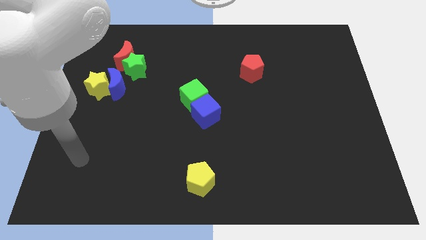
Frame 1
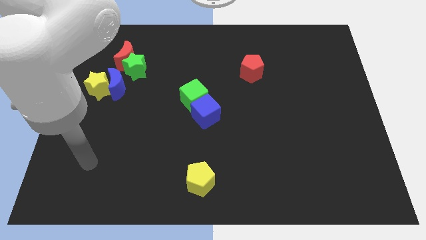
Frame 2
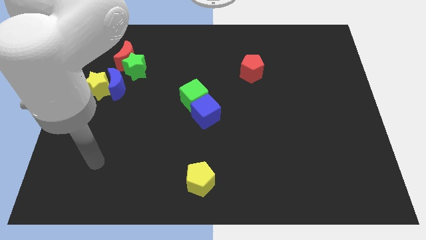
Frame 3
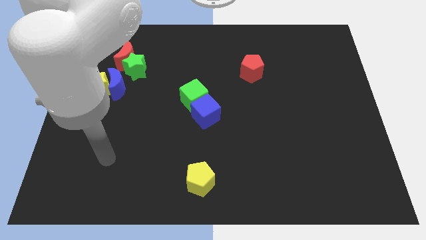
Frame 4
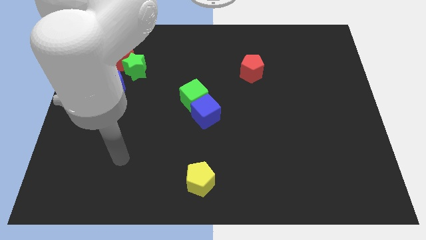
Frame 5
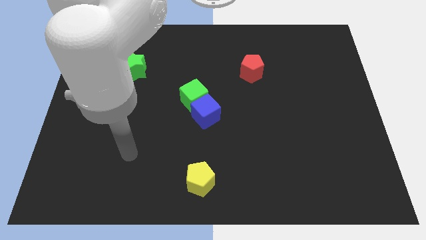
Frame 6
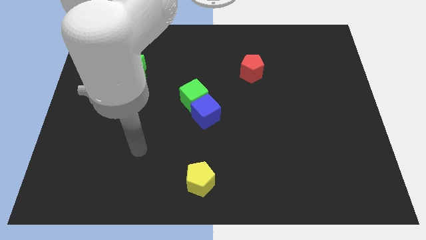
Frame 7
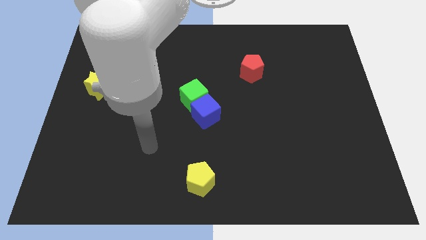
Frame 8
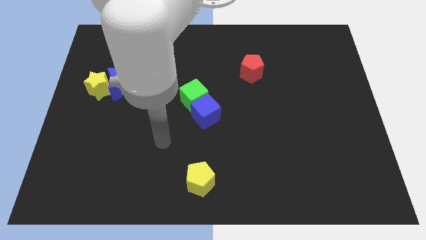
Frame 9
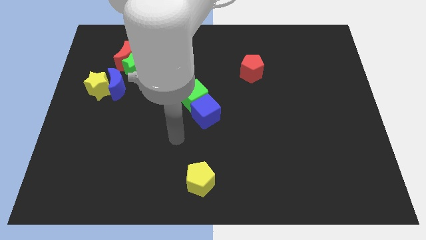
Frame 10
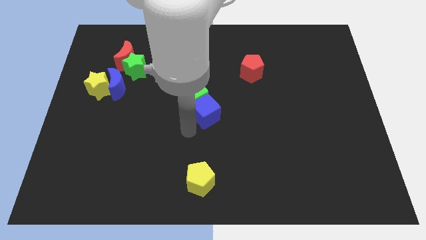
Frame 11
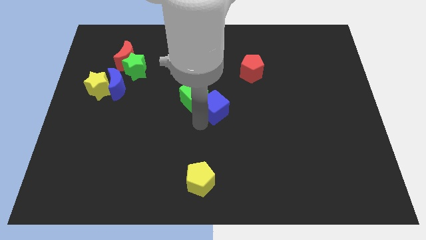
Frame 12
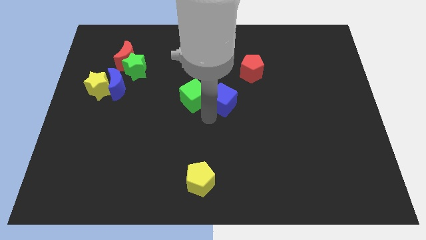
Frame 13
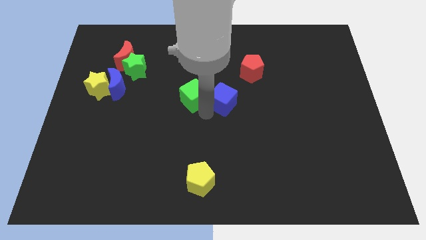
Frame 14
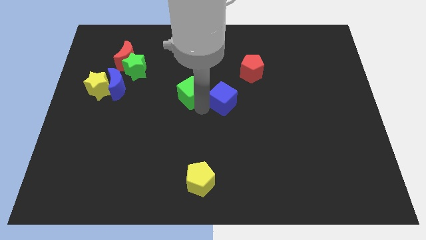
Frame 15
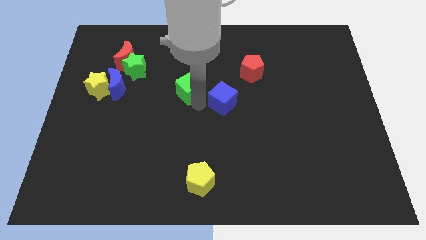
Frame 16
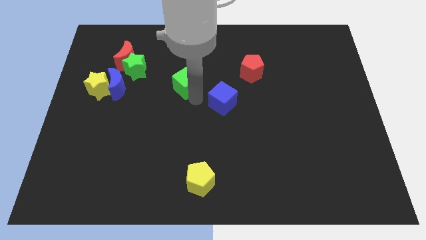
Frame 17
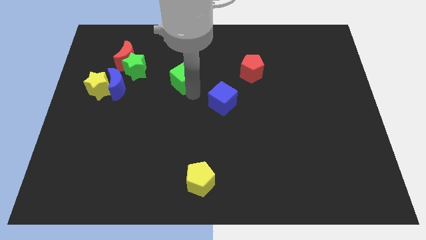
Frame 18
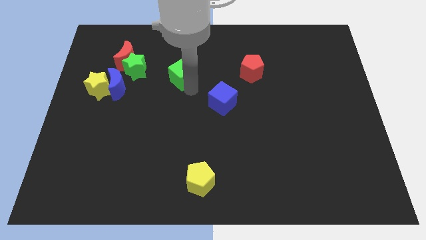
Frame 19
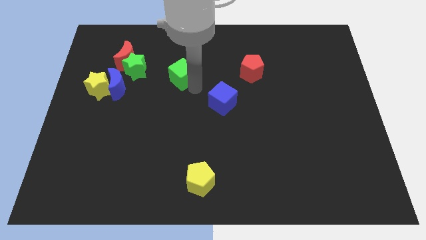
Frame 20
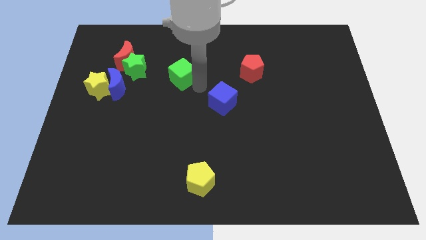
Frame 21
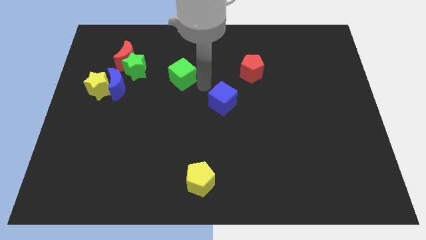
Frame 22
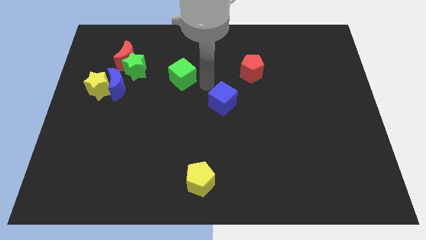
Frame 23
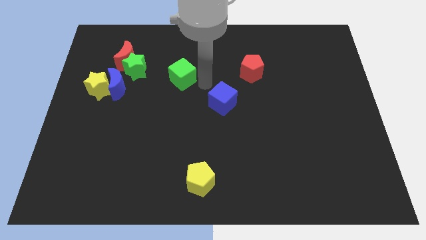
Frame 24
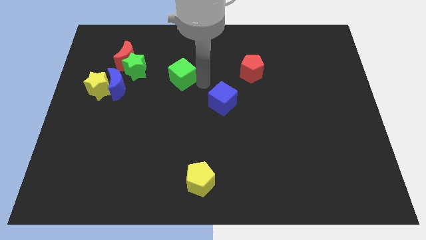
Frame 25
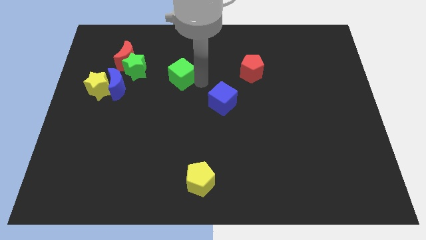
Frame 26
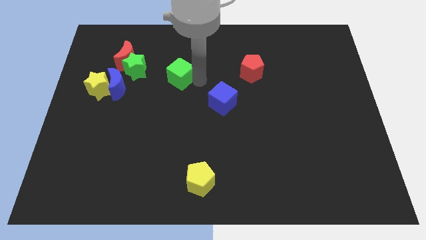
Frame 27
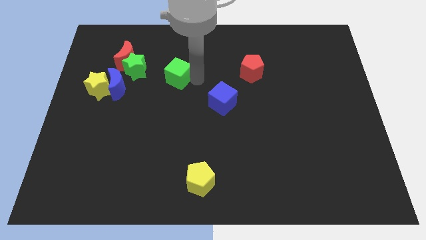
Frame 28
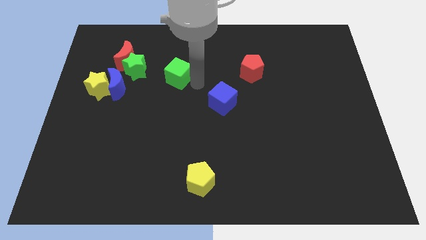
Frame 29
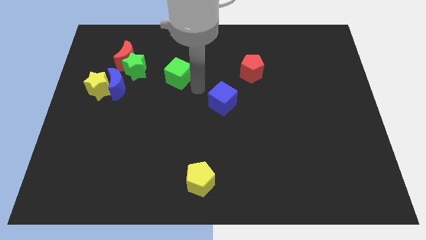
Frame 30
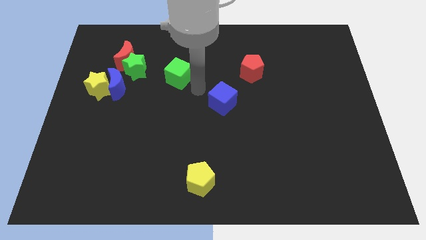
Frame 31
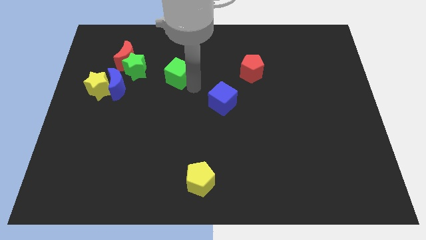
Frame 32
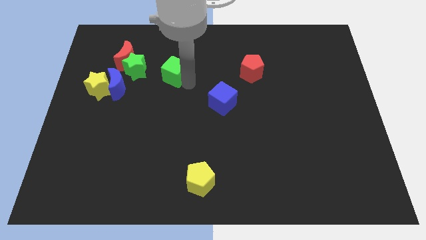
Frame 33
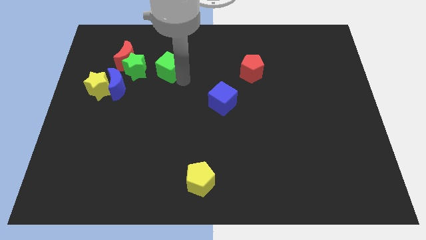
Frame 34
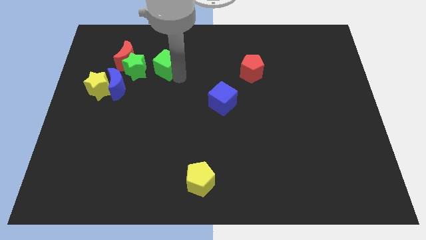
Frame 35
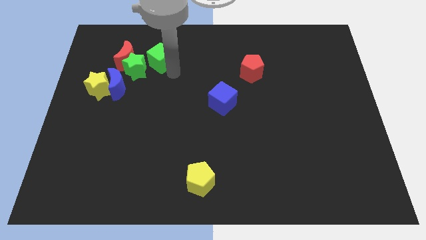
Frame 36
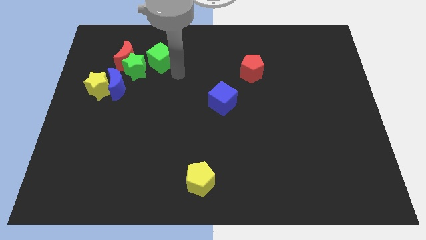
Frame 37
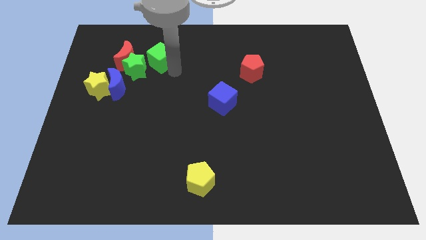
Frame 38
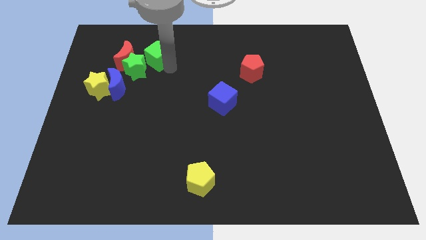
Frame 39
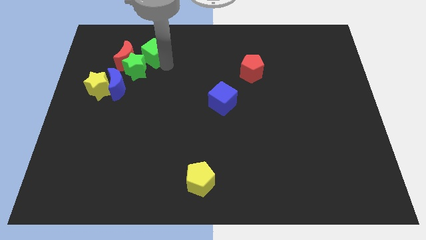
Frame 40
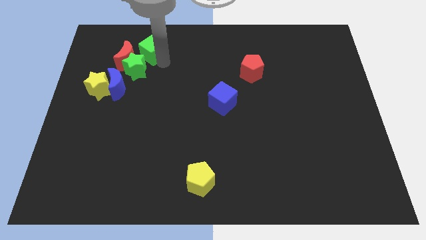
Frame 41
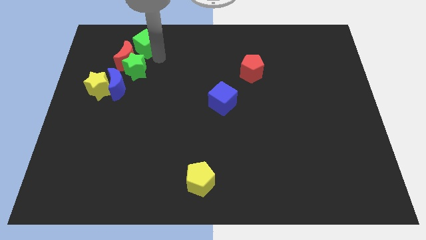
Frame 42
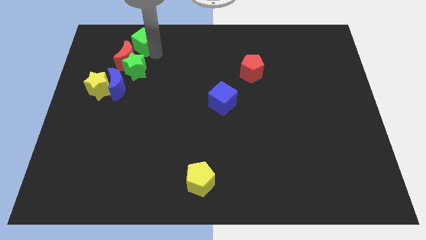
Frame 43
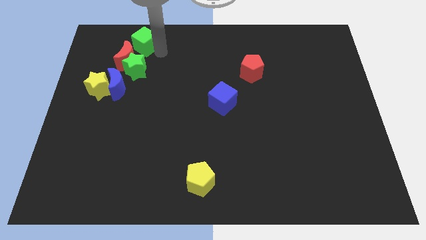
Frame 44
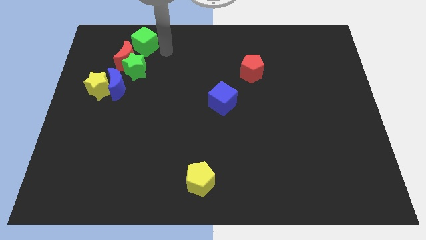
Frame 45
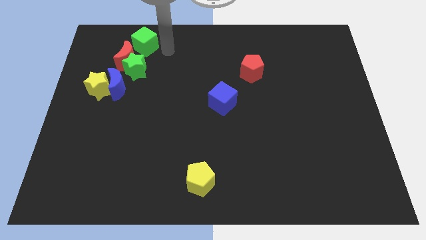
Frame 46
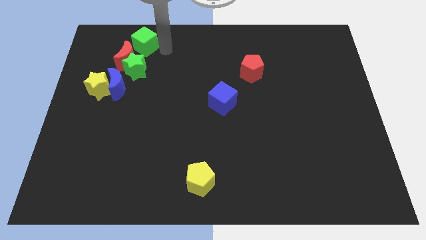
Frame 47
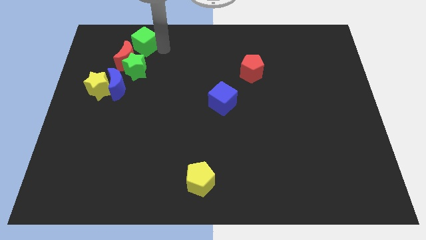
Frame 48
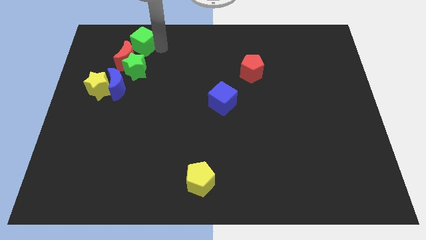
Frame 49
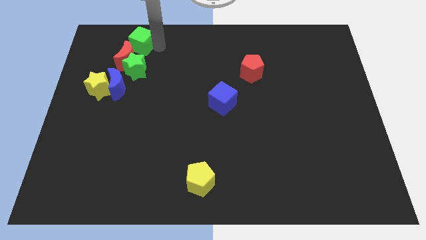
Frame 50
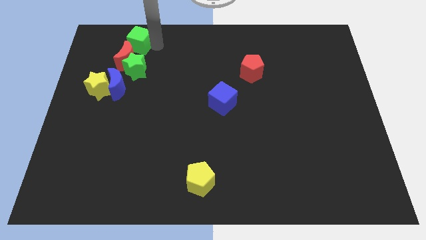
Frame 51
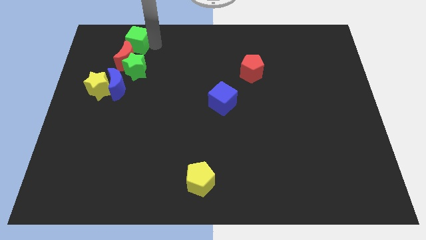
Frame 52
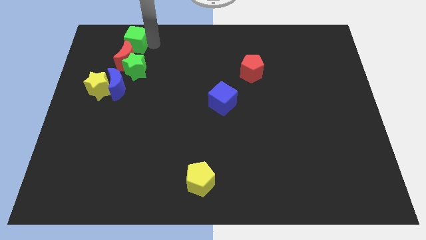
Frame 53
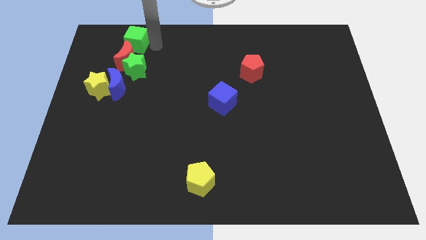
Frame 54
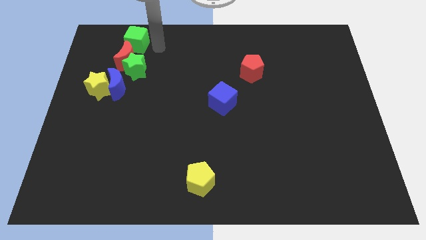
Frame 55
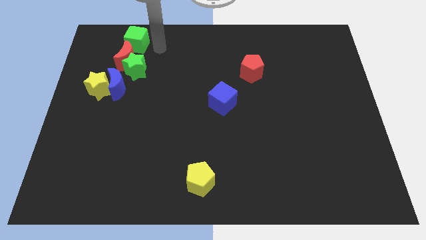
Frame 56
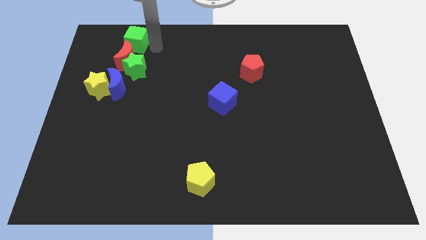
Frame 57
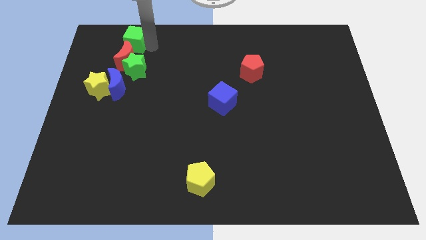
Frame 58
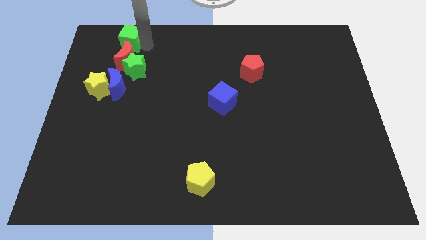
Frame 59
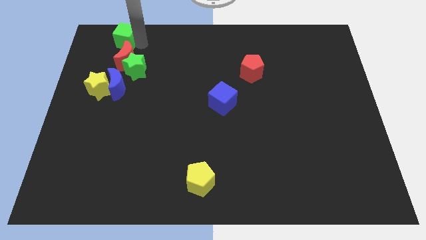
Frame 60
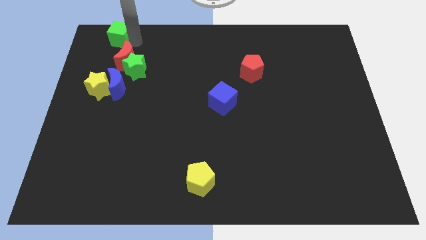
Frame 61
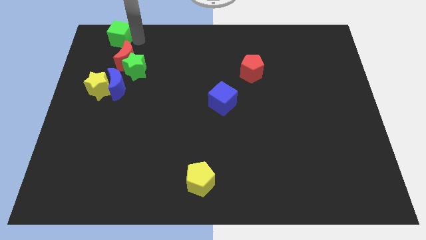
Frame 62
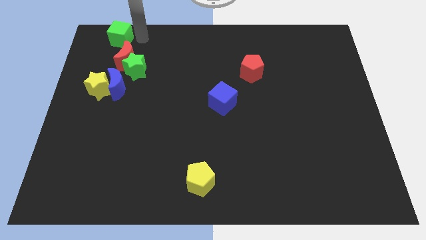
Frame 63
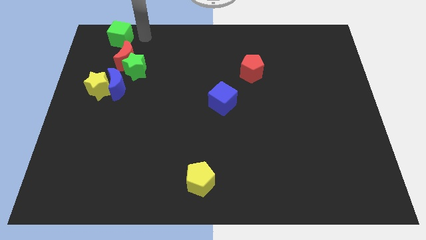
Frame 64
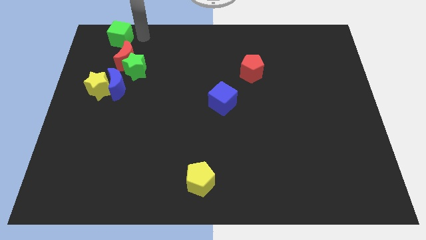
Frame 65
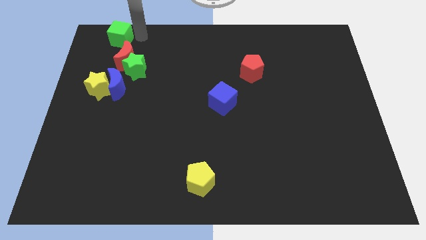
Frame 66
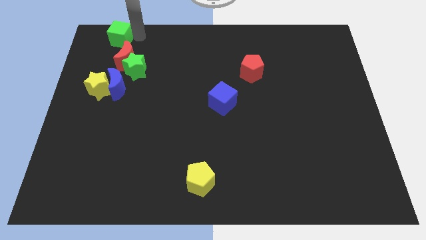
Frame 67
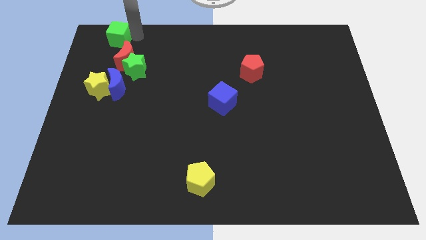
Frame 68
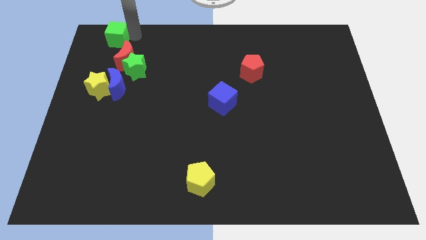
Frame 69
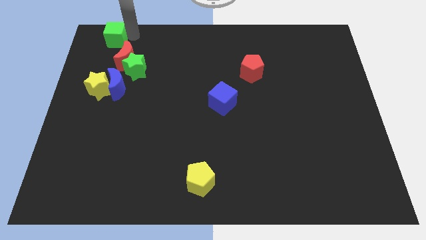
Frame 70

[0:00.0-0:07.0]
slide the green cube to the upper left corner

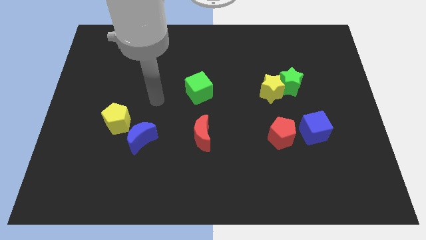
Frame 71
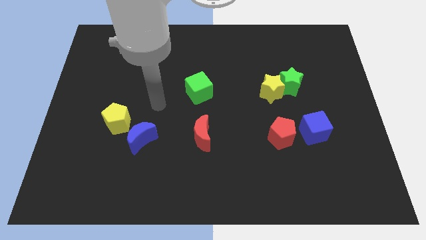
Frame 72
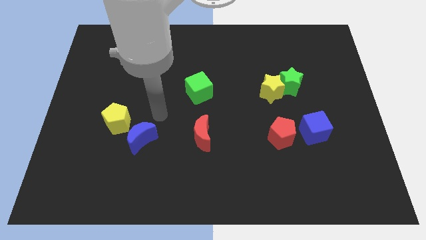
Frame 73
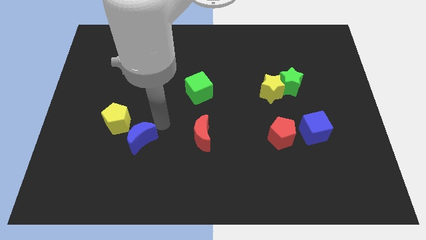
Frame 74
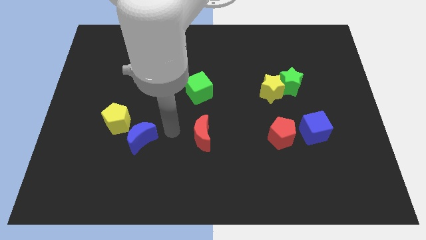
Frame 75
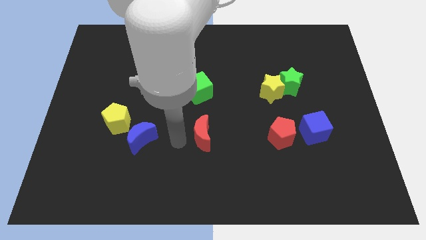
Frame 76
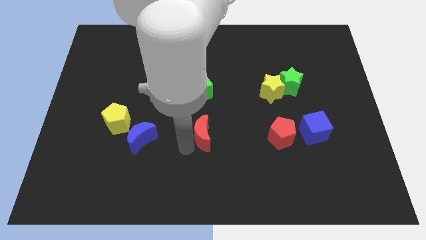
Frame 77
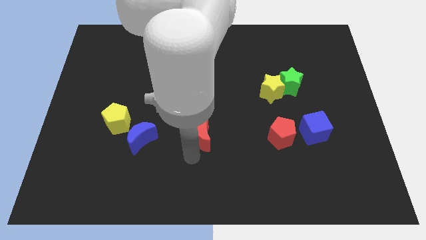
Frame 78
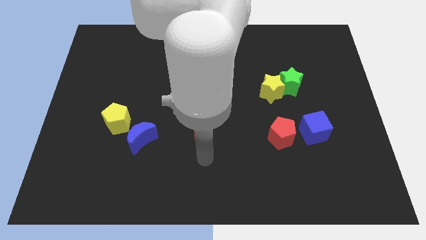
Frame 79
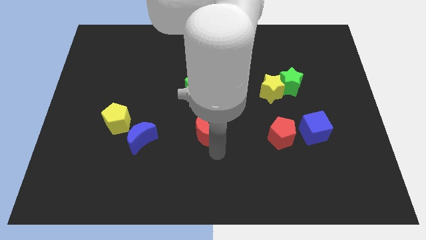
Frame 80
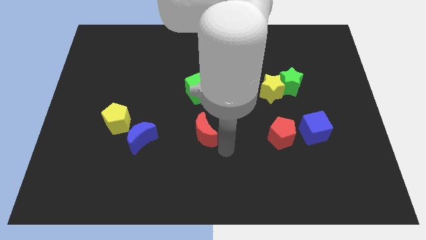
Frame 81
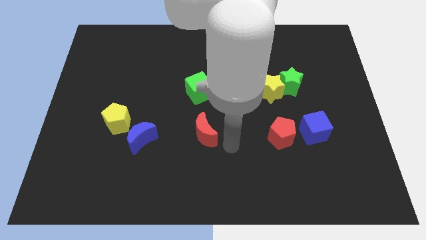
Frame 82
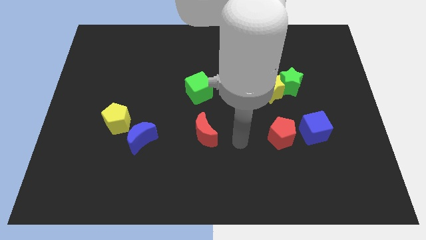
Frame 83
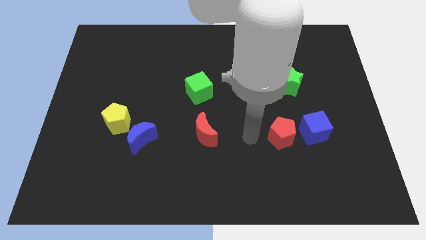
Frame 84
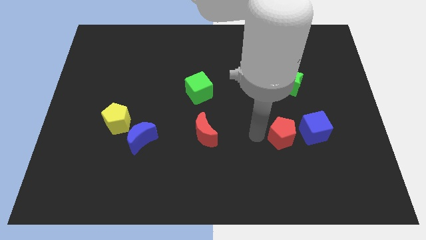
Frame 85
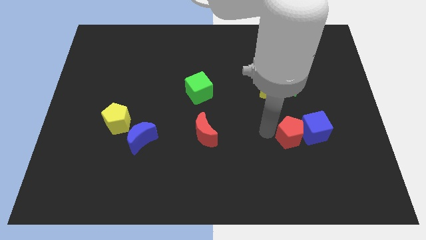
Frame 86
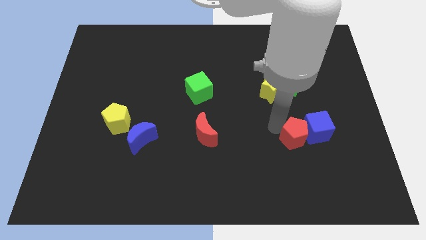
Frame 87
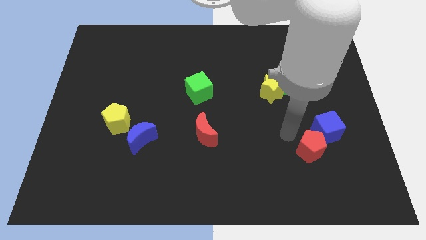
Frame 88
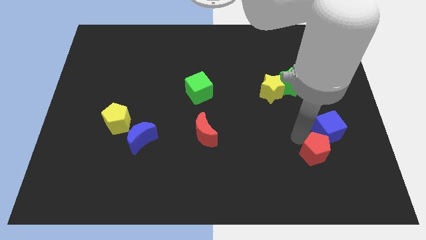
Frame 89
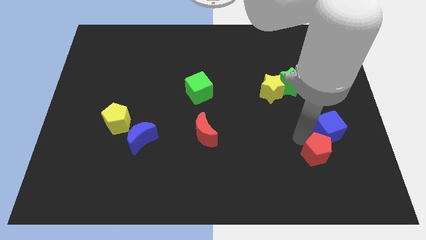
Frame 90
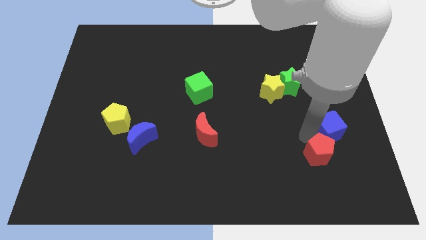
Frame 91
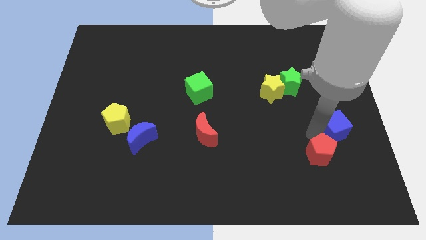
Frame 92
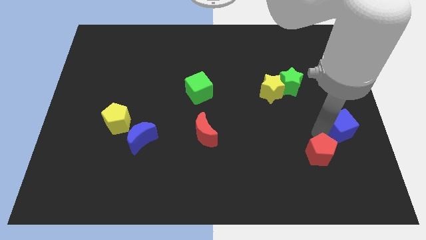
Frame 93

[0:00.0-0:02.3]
put the blue cube to the center right
